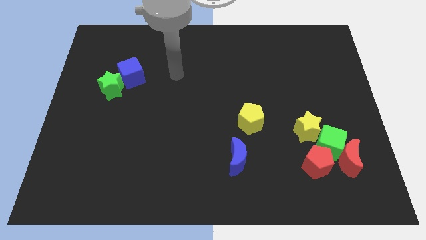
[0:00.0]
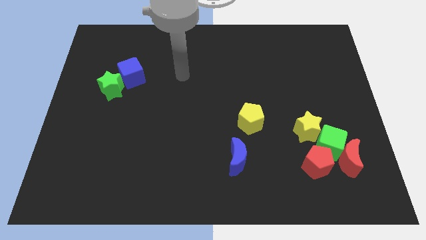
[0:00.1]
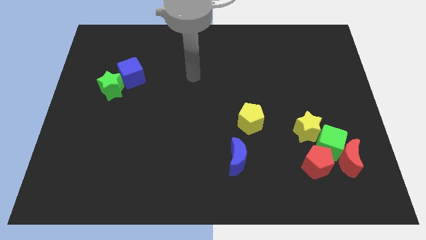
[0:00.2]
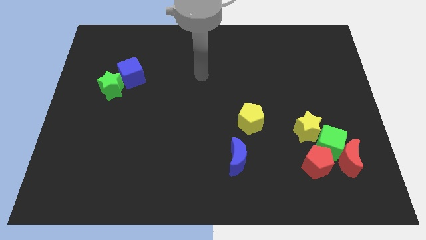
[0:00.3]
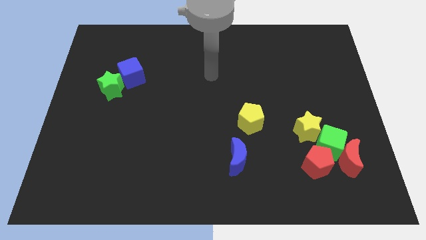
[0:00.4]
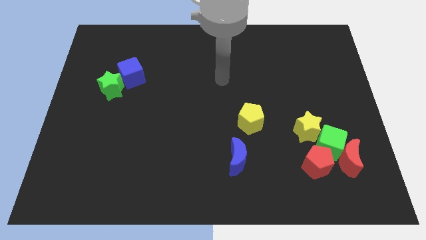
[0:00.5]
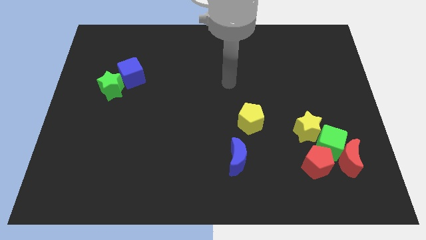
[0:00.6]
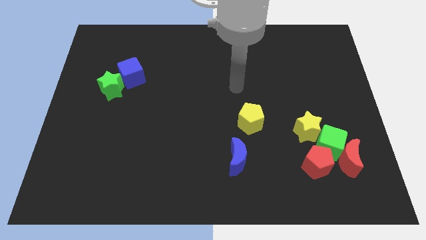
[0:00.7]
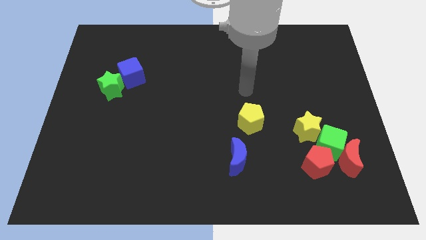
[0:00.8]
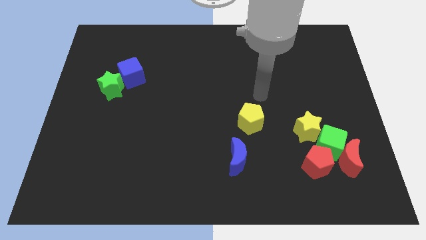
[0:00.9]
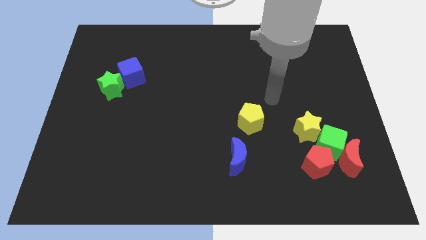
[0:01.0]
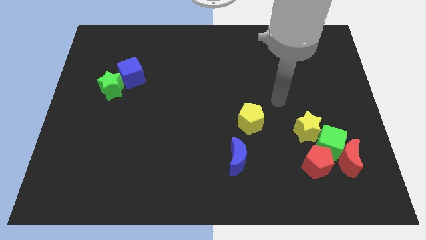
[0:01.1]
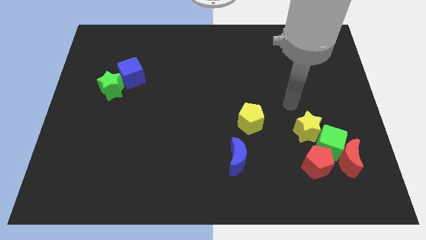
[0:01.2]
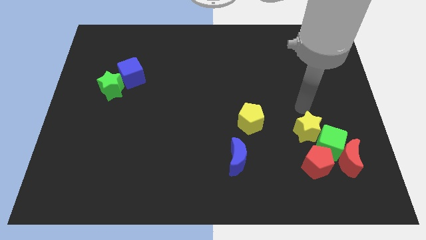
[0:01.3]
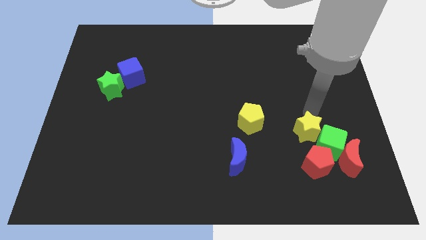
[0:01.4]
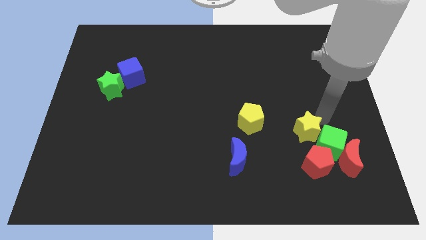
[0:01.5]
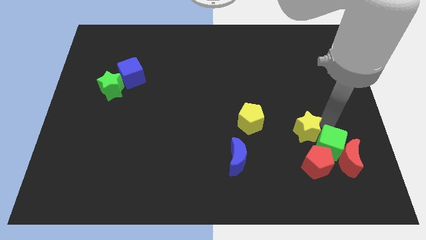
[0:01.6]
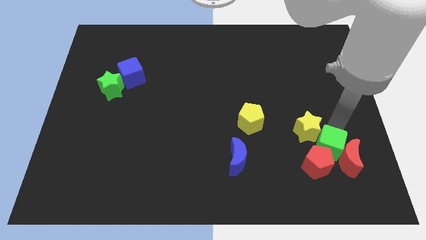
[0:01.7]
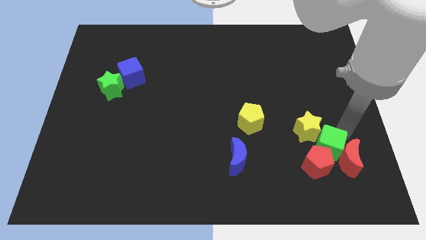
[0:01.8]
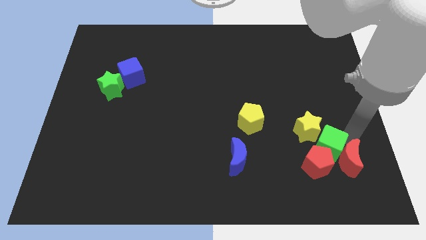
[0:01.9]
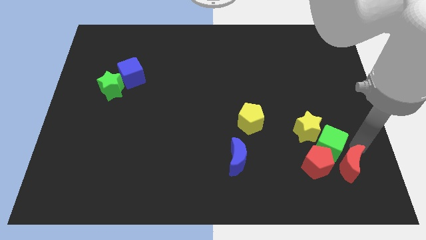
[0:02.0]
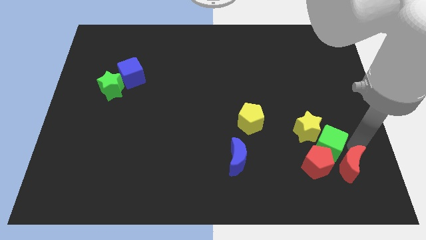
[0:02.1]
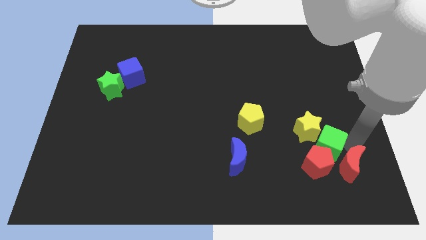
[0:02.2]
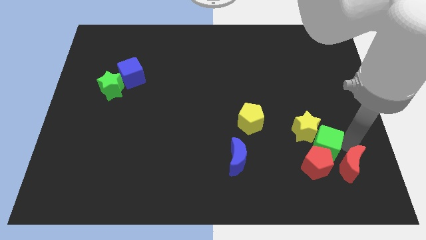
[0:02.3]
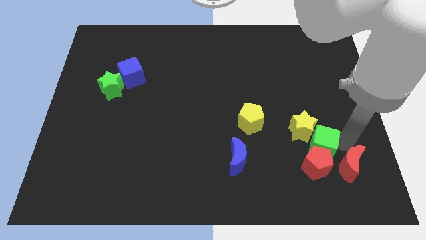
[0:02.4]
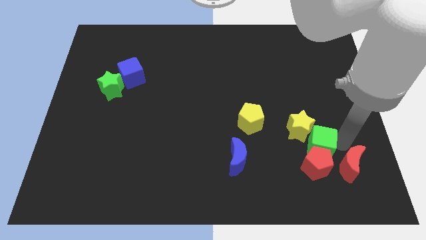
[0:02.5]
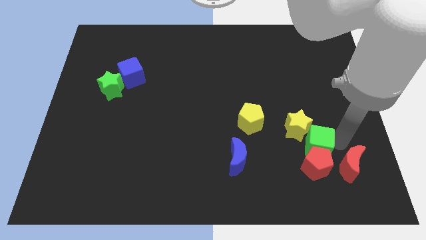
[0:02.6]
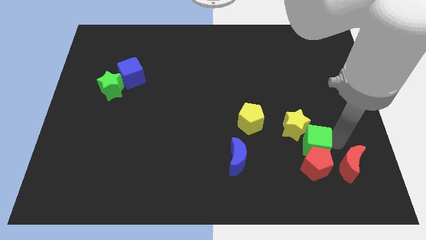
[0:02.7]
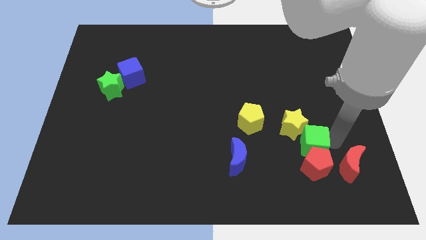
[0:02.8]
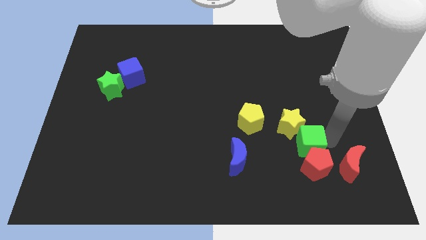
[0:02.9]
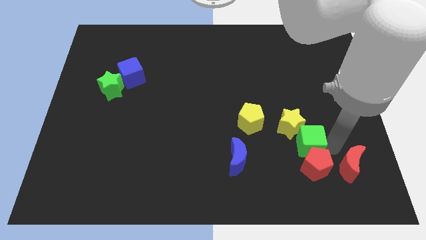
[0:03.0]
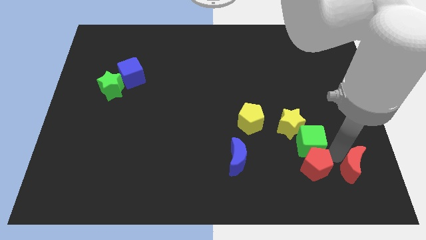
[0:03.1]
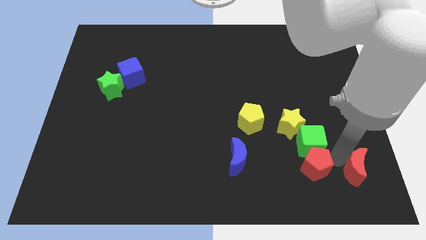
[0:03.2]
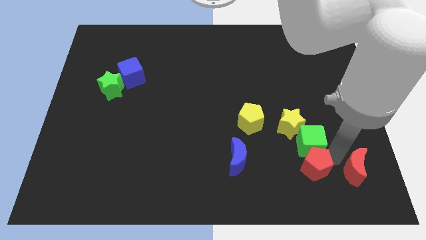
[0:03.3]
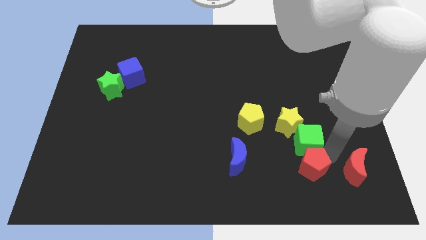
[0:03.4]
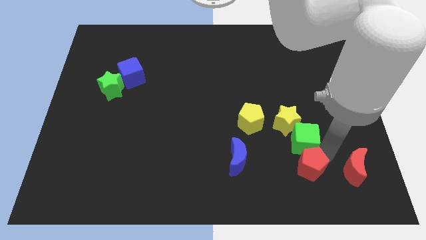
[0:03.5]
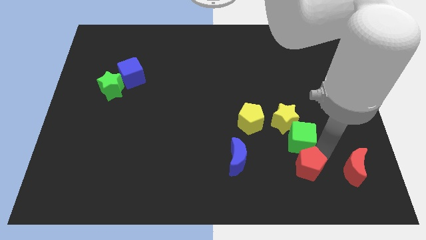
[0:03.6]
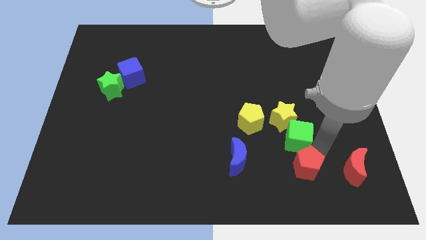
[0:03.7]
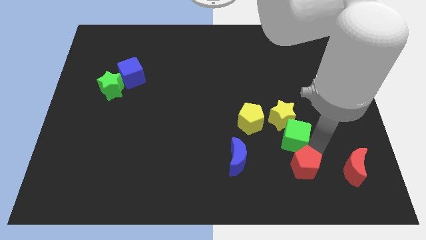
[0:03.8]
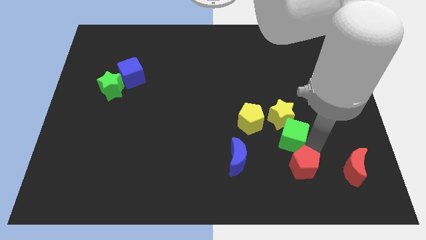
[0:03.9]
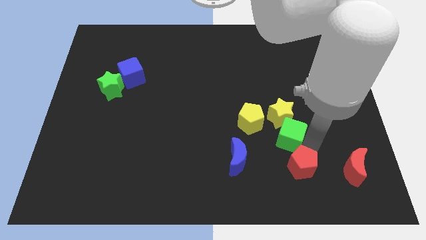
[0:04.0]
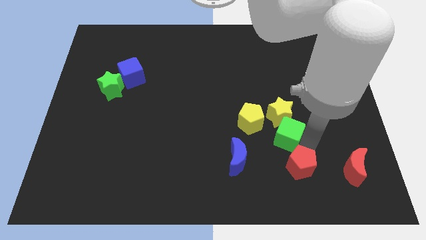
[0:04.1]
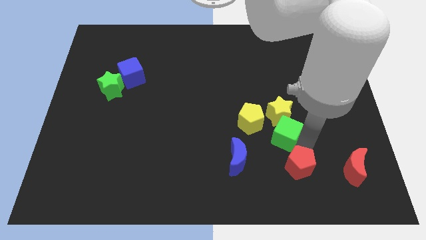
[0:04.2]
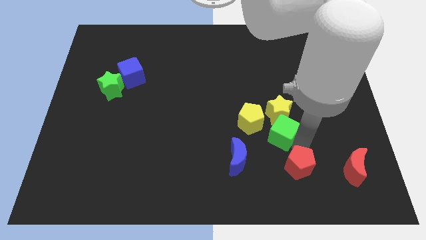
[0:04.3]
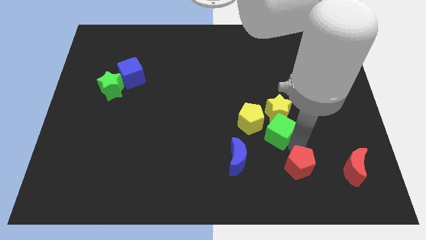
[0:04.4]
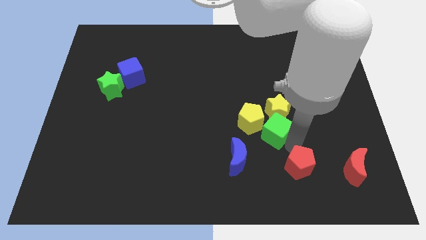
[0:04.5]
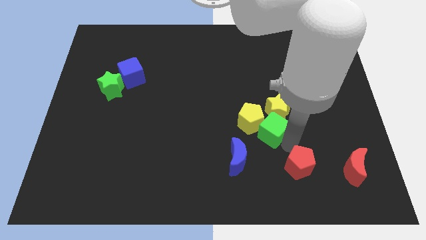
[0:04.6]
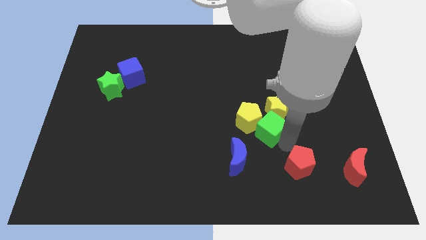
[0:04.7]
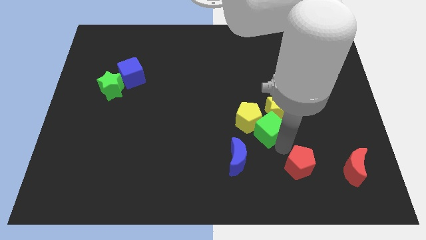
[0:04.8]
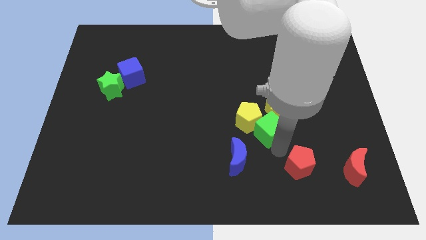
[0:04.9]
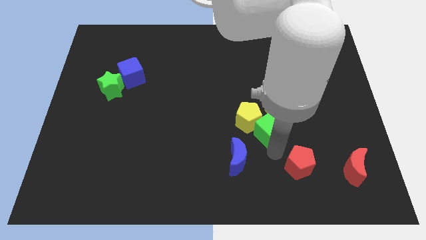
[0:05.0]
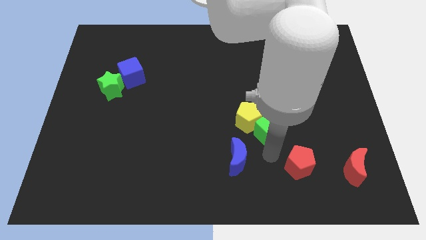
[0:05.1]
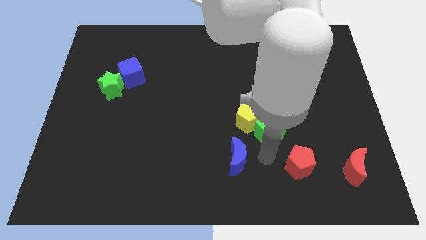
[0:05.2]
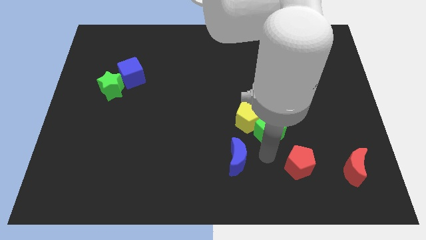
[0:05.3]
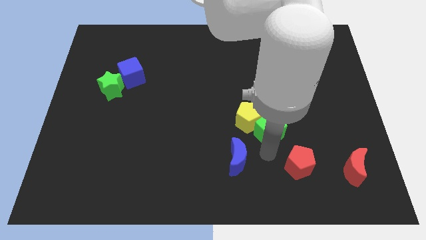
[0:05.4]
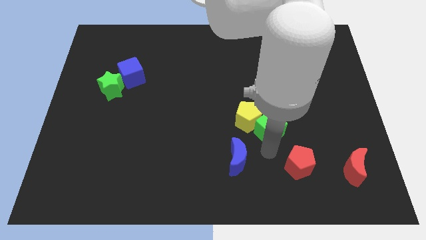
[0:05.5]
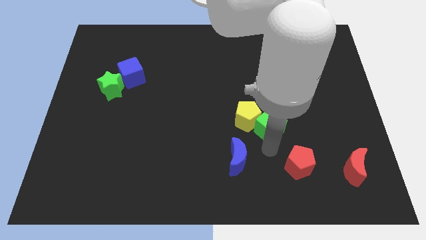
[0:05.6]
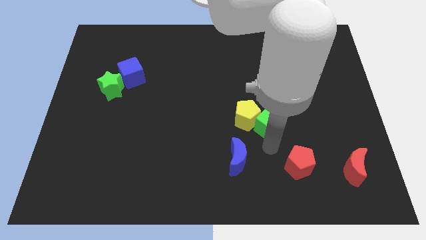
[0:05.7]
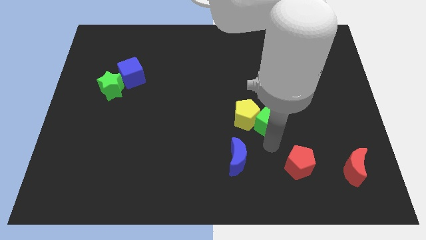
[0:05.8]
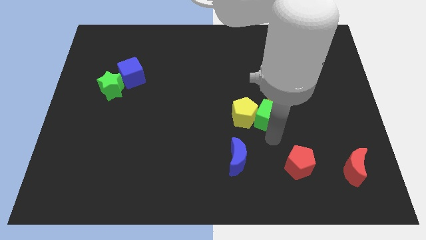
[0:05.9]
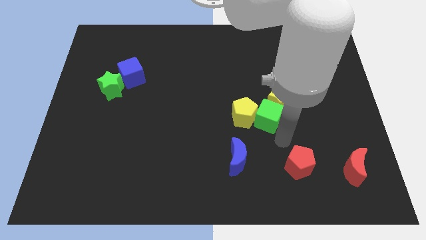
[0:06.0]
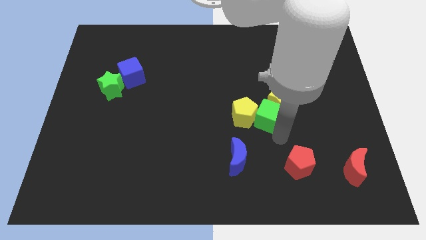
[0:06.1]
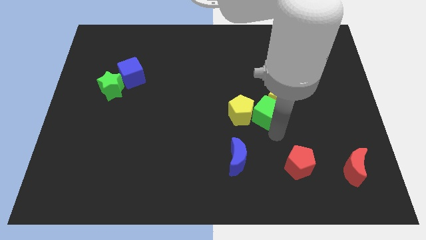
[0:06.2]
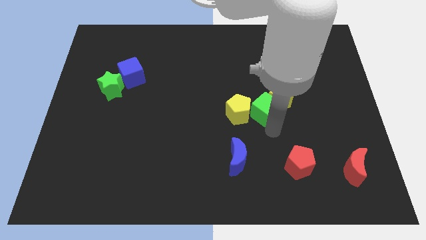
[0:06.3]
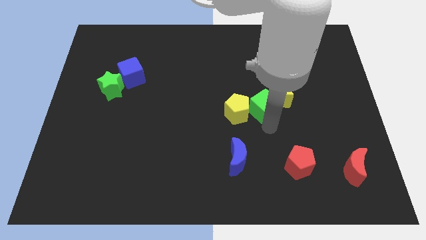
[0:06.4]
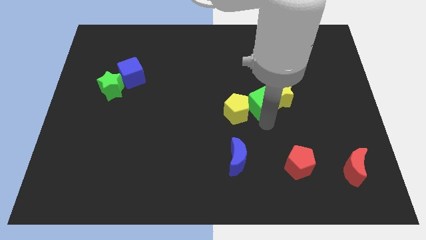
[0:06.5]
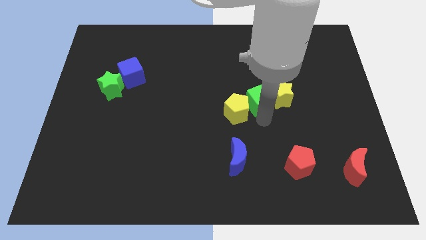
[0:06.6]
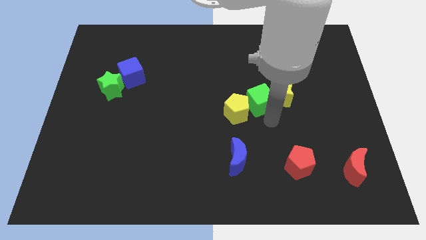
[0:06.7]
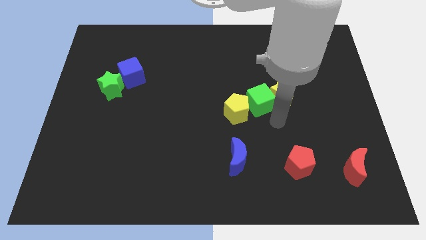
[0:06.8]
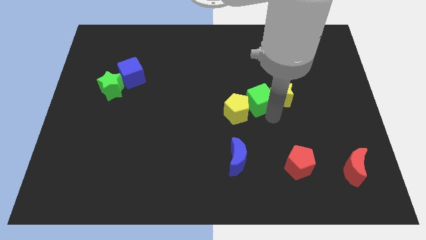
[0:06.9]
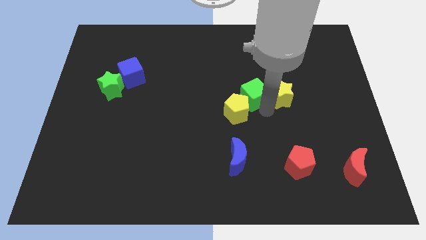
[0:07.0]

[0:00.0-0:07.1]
slide the green cube above the yellow pentagon

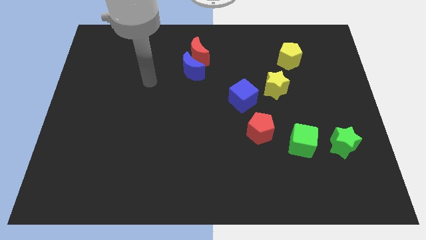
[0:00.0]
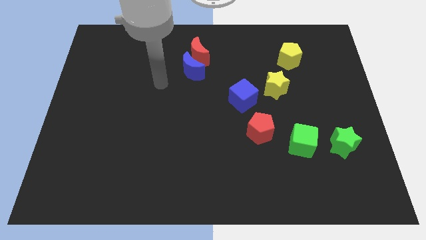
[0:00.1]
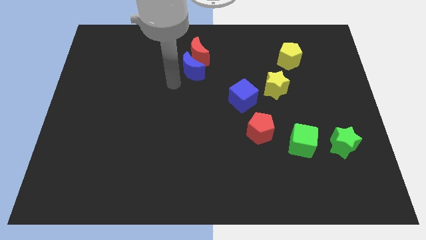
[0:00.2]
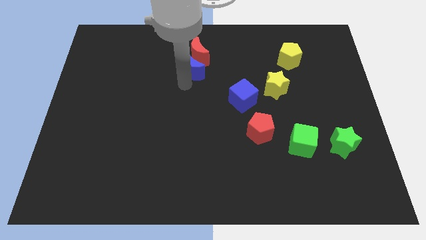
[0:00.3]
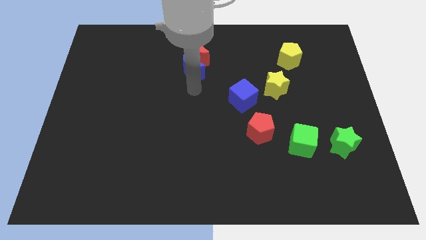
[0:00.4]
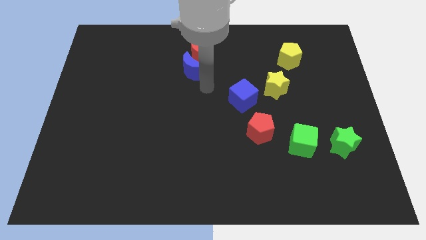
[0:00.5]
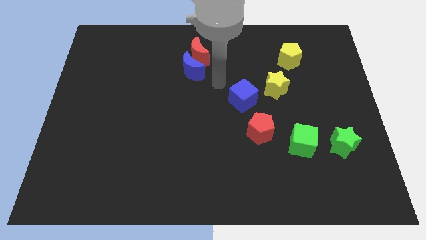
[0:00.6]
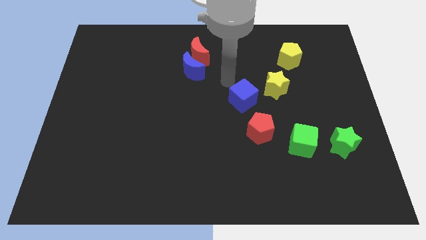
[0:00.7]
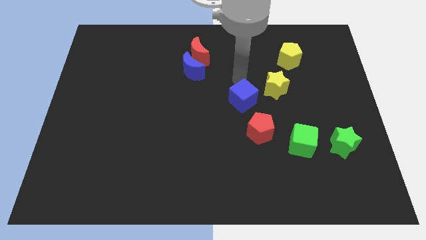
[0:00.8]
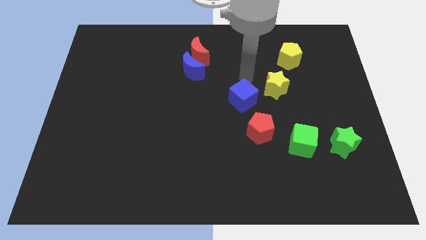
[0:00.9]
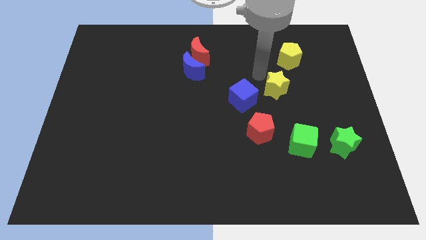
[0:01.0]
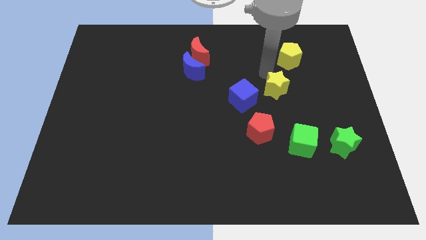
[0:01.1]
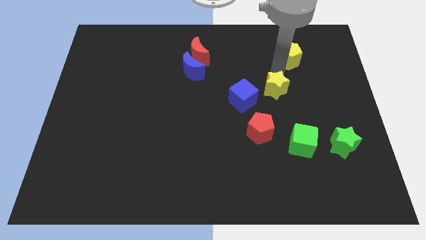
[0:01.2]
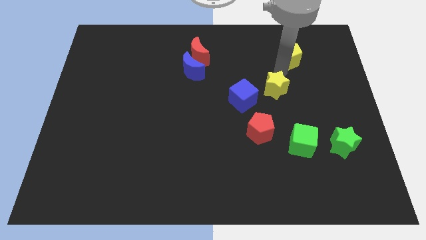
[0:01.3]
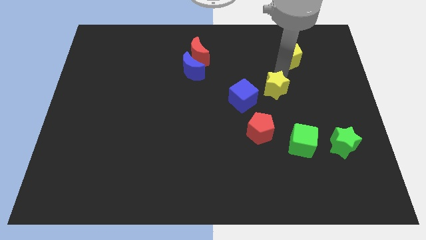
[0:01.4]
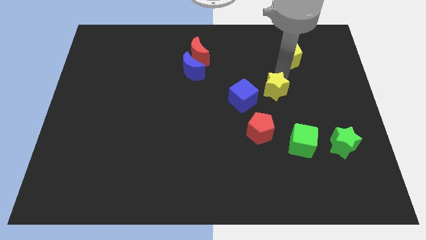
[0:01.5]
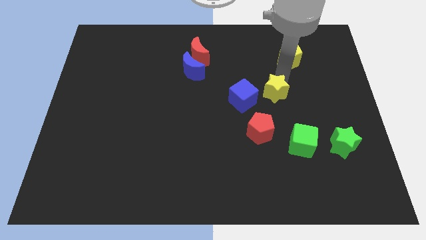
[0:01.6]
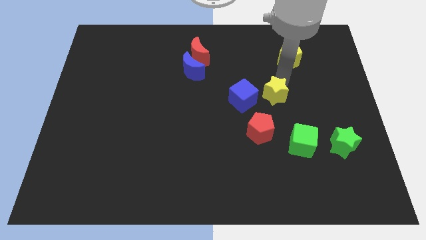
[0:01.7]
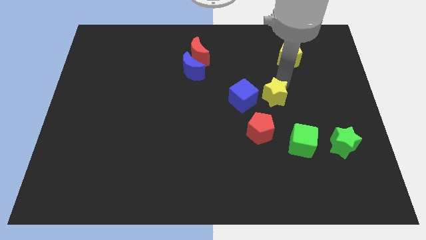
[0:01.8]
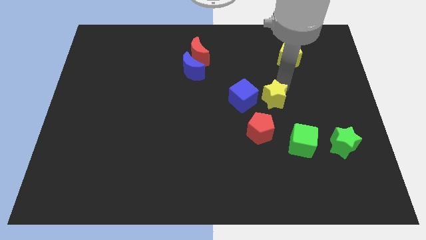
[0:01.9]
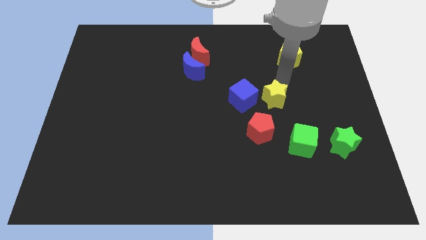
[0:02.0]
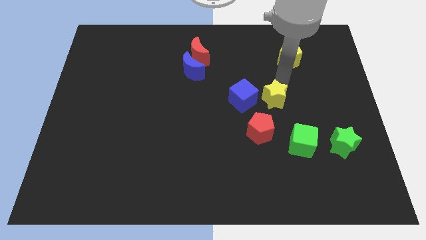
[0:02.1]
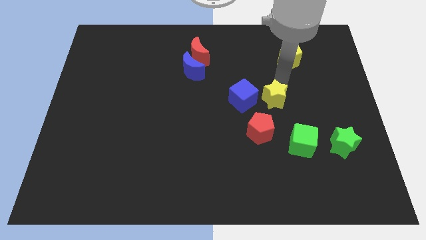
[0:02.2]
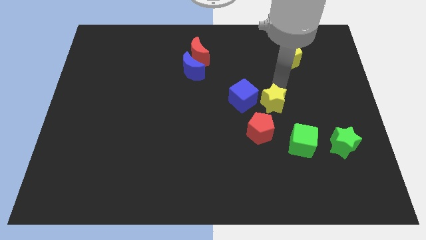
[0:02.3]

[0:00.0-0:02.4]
push the yellow star diagonally down and to the right of the blue cube
